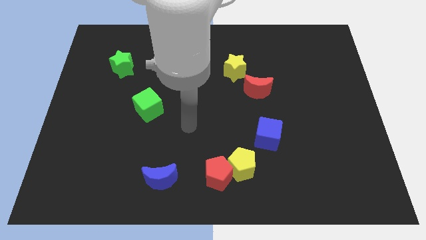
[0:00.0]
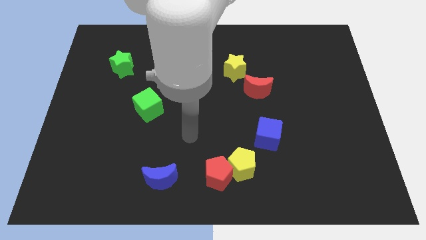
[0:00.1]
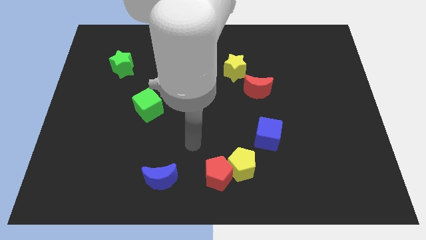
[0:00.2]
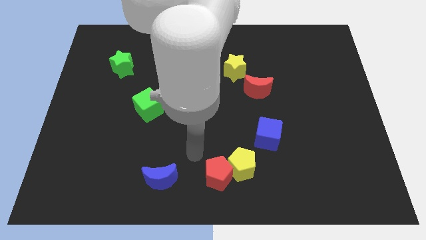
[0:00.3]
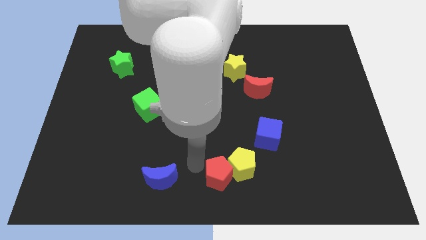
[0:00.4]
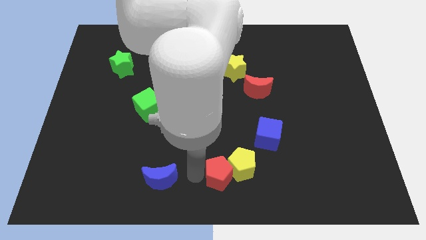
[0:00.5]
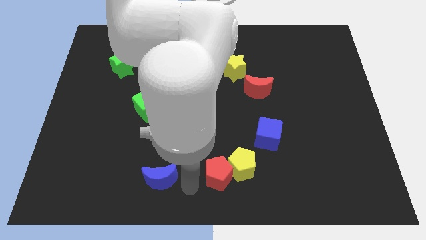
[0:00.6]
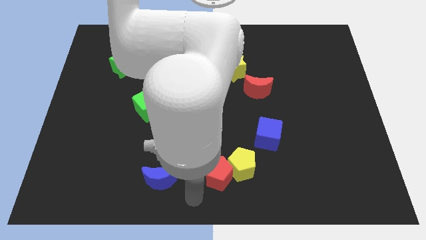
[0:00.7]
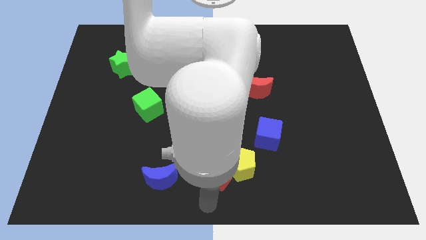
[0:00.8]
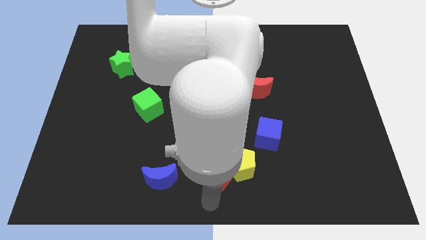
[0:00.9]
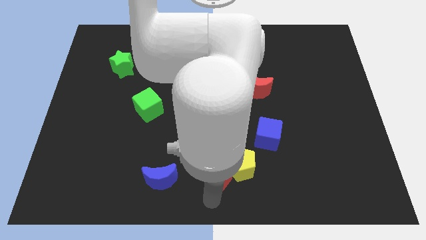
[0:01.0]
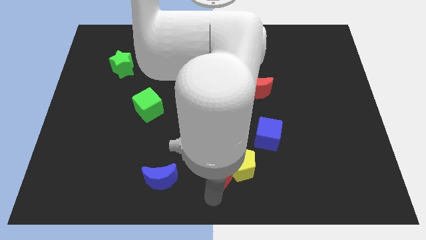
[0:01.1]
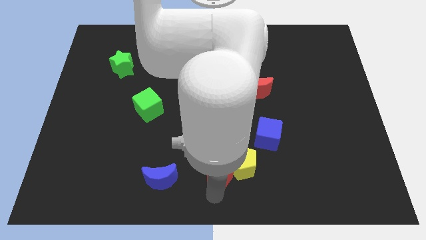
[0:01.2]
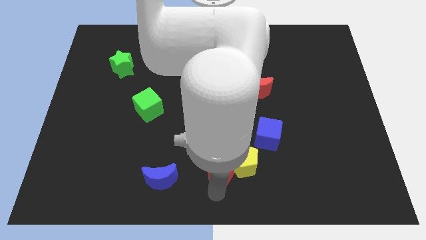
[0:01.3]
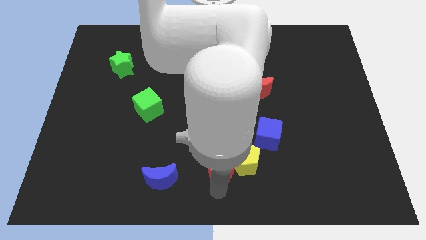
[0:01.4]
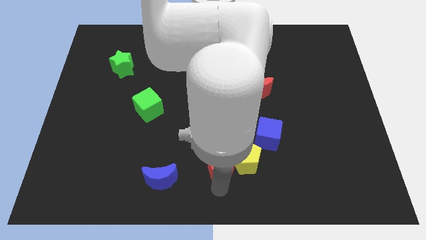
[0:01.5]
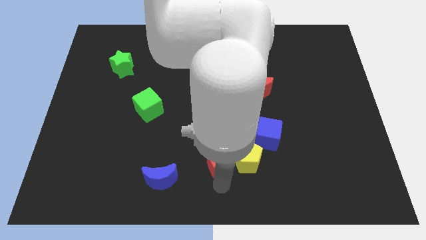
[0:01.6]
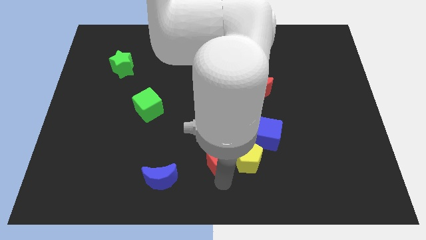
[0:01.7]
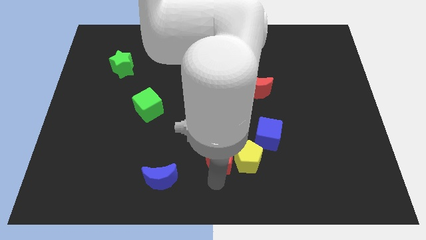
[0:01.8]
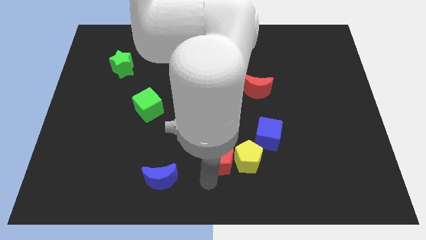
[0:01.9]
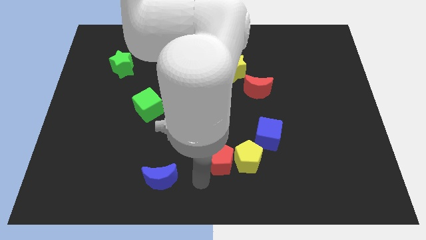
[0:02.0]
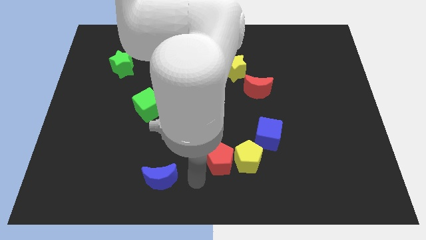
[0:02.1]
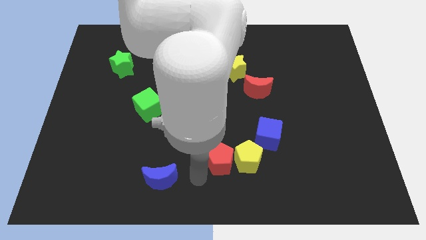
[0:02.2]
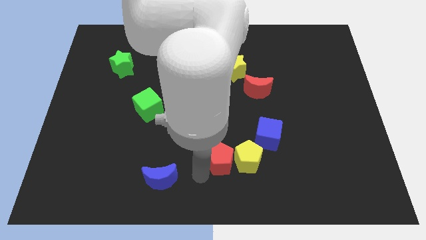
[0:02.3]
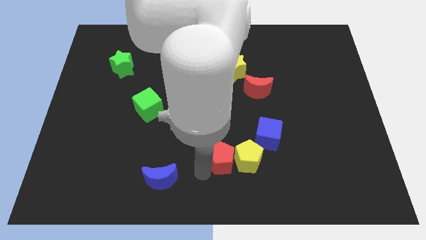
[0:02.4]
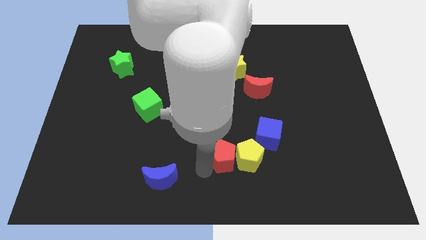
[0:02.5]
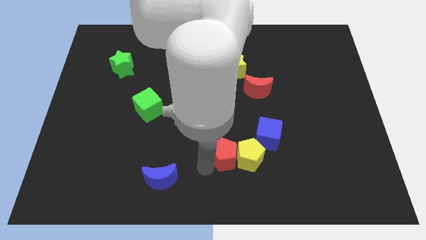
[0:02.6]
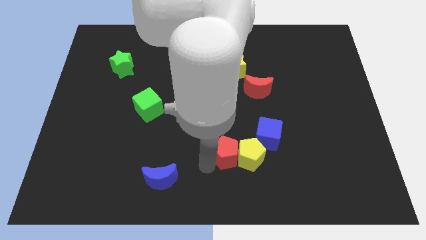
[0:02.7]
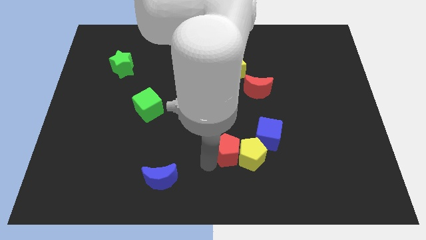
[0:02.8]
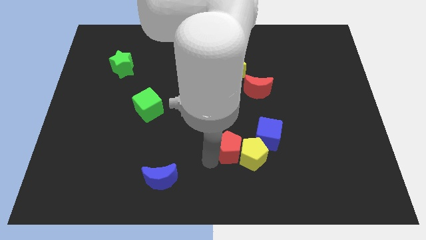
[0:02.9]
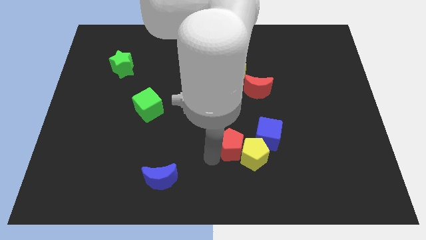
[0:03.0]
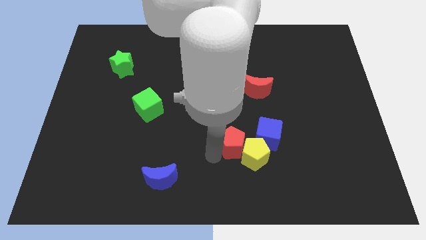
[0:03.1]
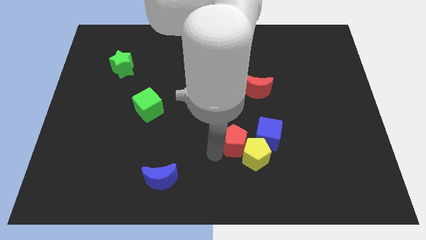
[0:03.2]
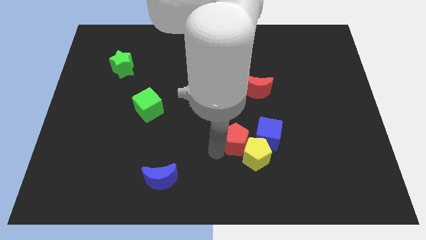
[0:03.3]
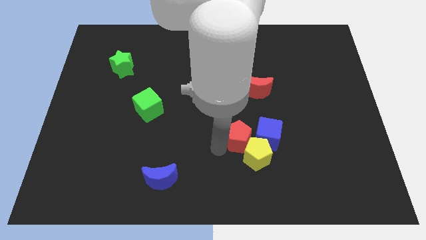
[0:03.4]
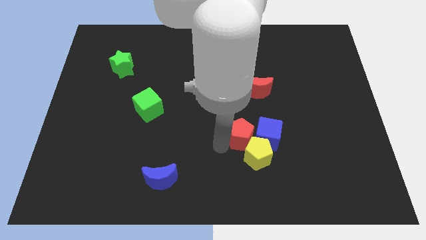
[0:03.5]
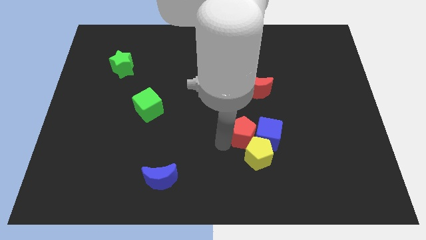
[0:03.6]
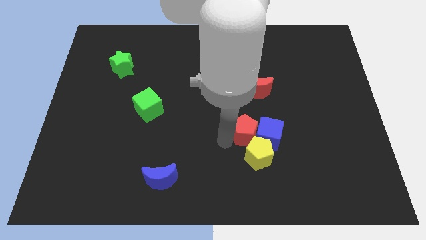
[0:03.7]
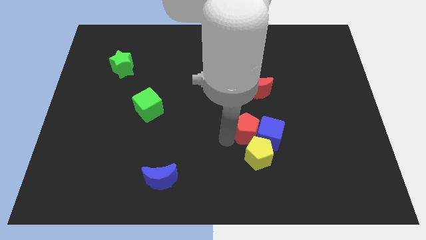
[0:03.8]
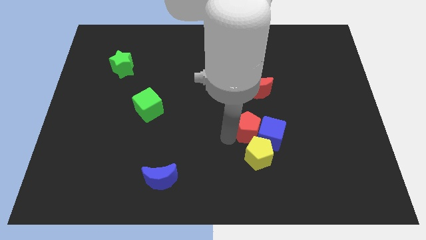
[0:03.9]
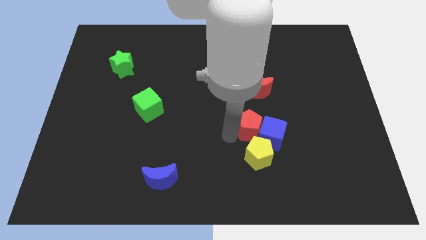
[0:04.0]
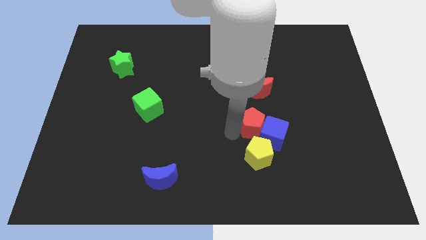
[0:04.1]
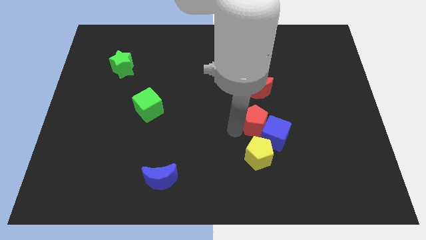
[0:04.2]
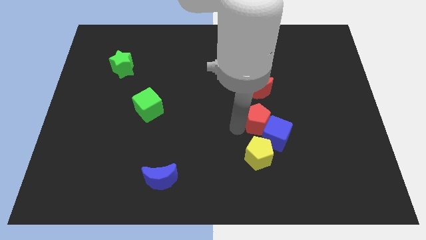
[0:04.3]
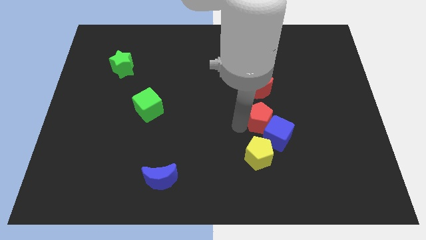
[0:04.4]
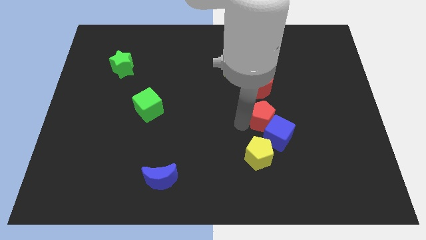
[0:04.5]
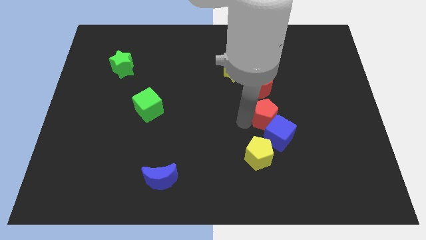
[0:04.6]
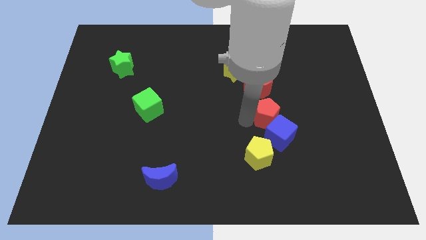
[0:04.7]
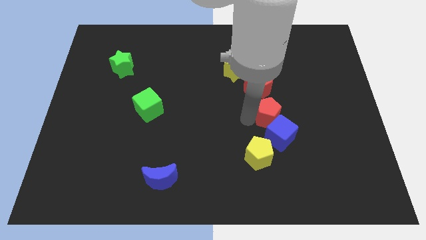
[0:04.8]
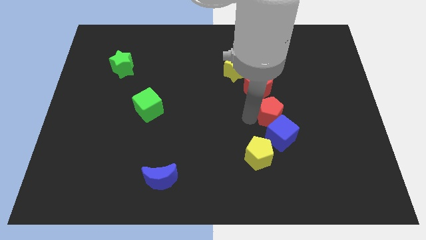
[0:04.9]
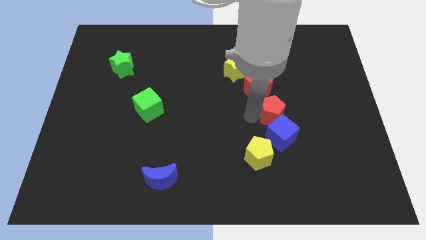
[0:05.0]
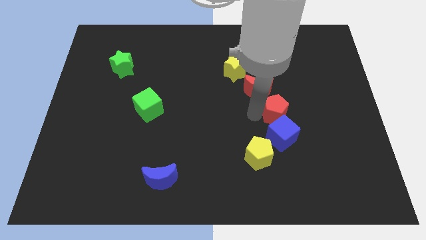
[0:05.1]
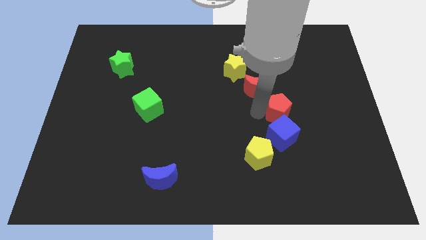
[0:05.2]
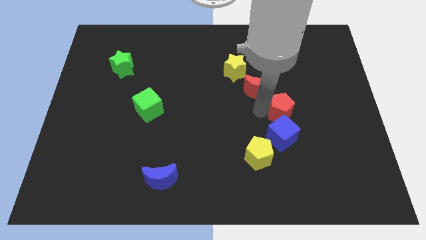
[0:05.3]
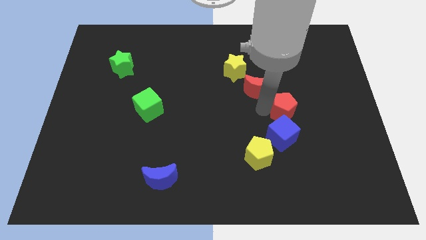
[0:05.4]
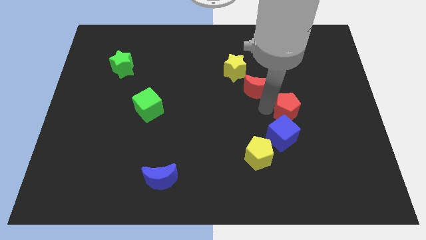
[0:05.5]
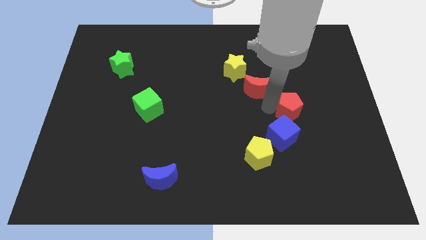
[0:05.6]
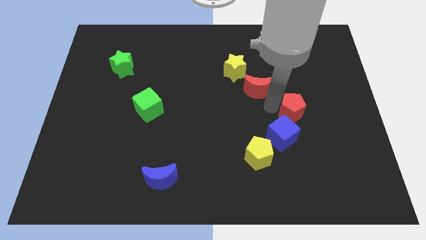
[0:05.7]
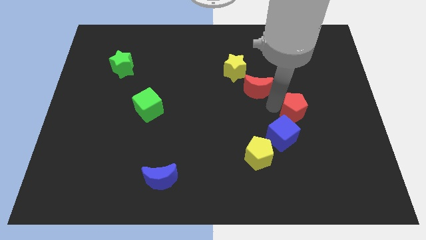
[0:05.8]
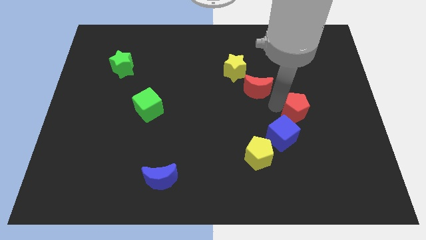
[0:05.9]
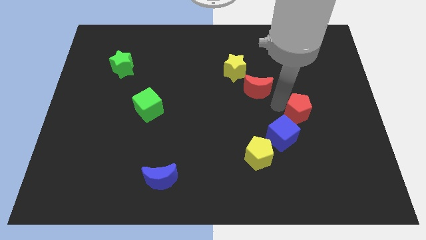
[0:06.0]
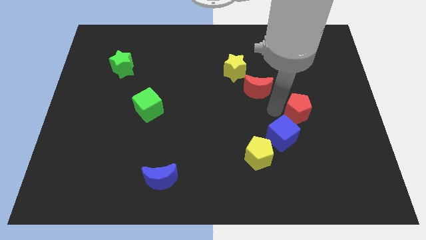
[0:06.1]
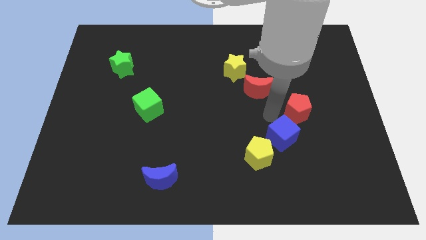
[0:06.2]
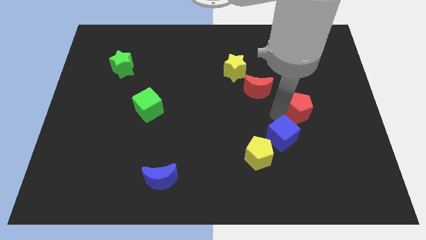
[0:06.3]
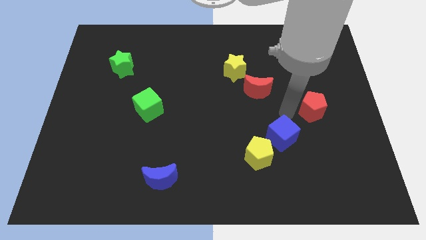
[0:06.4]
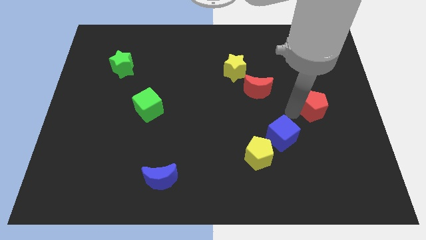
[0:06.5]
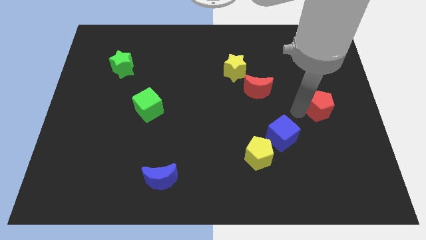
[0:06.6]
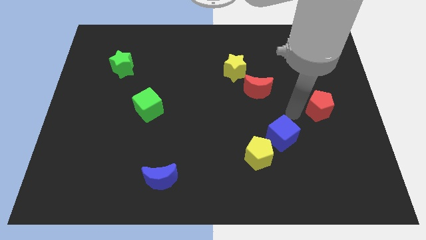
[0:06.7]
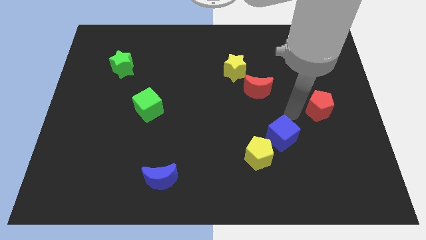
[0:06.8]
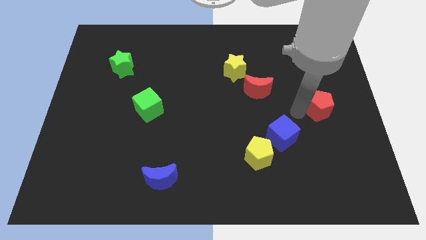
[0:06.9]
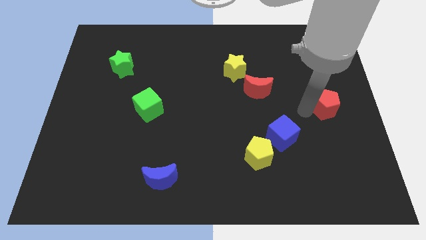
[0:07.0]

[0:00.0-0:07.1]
move the red pentagon to the right side of the board

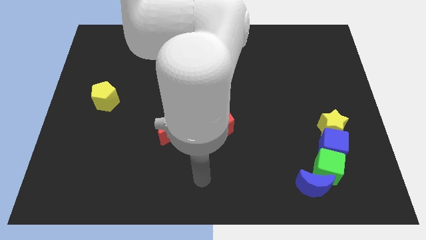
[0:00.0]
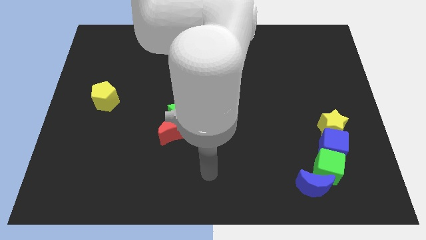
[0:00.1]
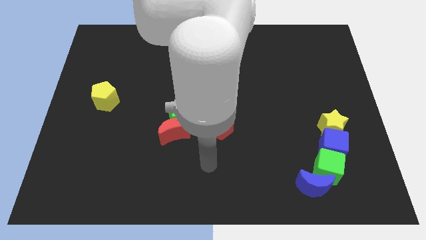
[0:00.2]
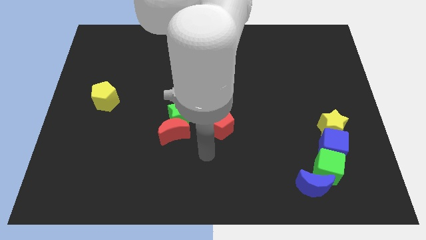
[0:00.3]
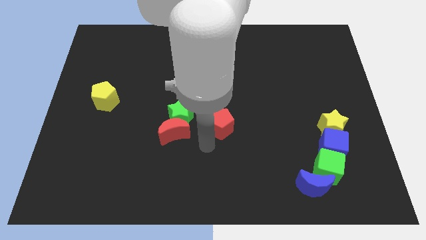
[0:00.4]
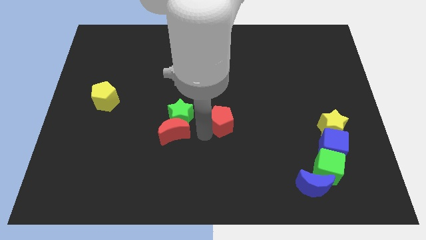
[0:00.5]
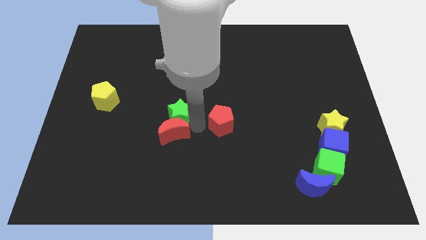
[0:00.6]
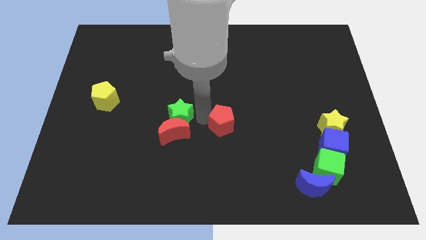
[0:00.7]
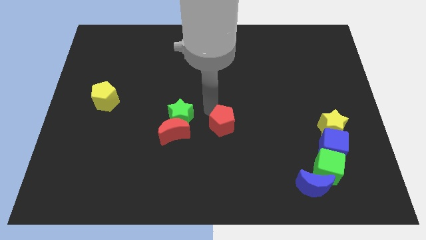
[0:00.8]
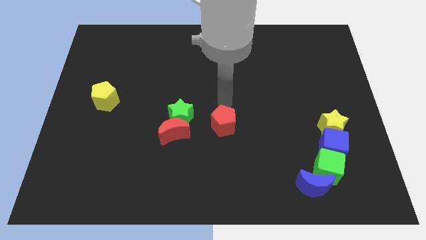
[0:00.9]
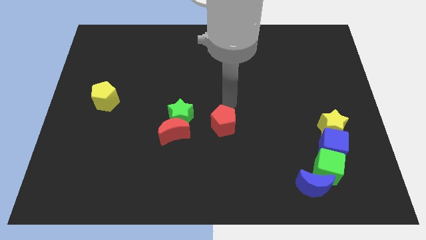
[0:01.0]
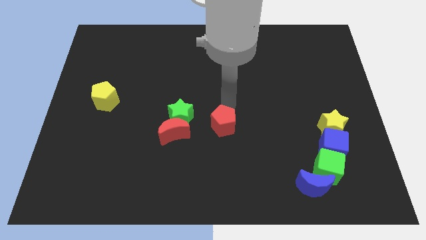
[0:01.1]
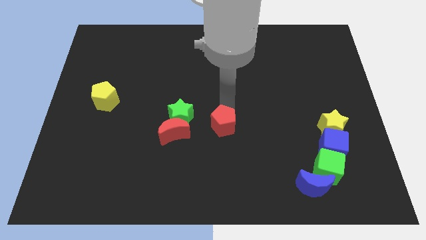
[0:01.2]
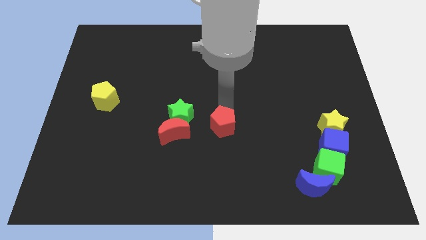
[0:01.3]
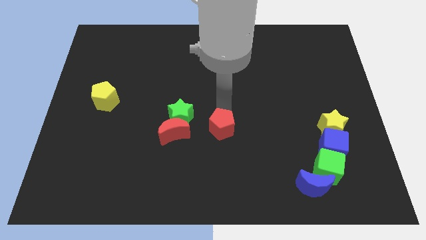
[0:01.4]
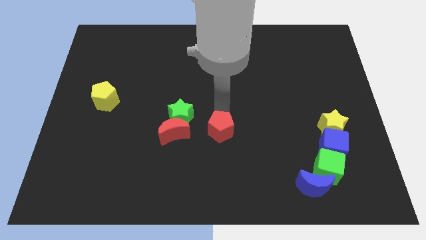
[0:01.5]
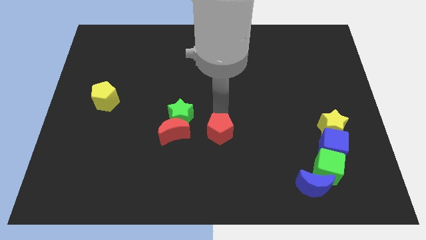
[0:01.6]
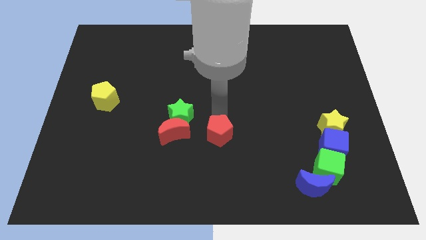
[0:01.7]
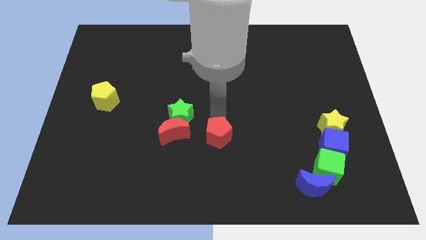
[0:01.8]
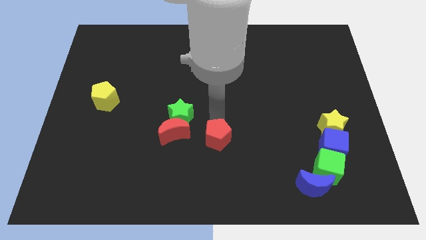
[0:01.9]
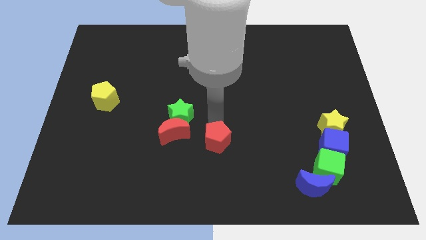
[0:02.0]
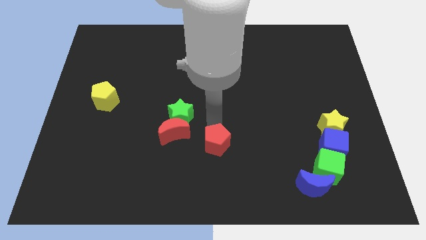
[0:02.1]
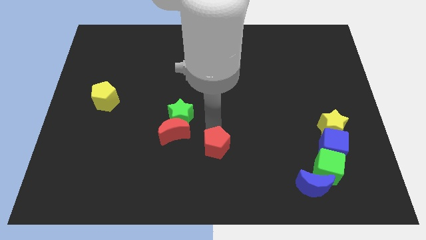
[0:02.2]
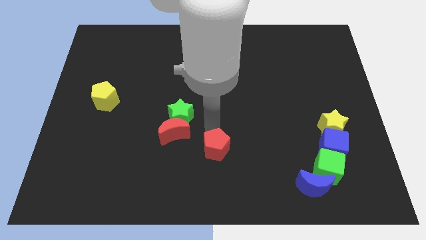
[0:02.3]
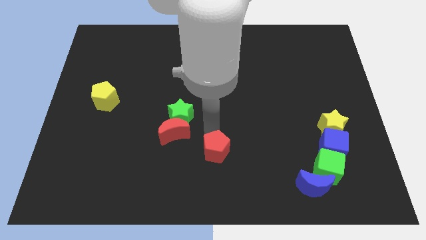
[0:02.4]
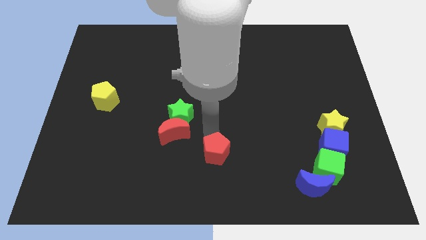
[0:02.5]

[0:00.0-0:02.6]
put the red pentagon to the bottom side
